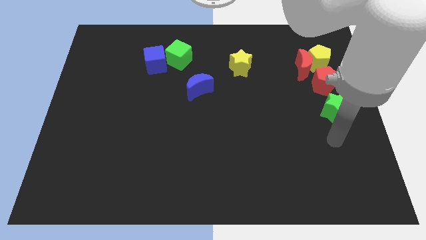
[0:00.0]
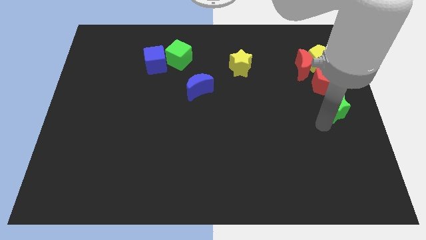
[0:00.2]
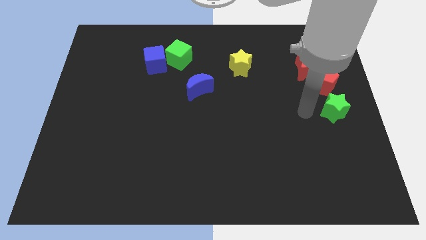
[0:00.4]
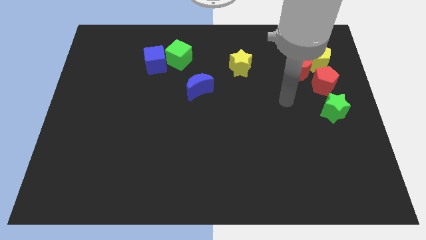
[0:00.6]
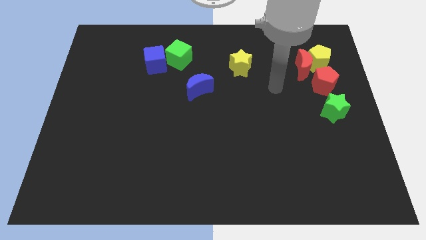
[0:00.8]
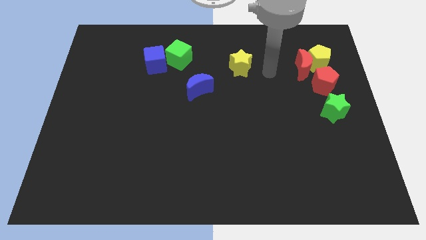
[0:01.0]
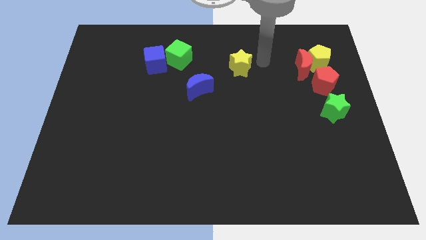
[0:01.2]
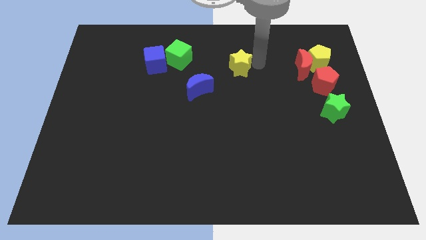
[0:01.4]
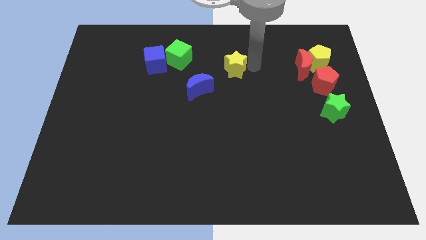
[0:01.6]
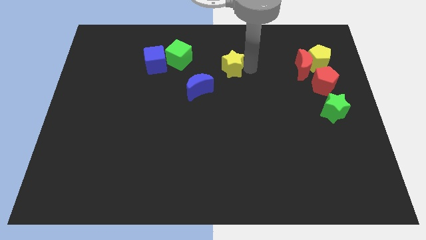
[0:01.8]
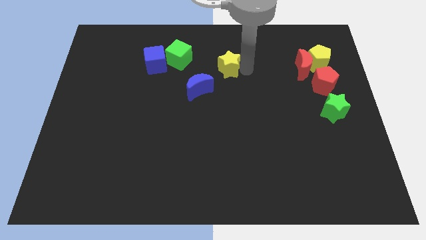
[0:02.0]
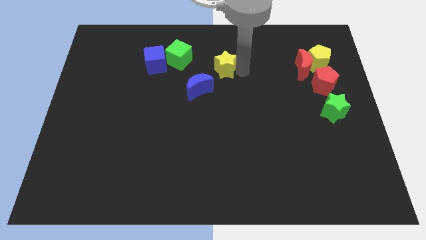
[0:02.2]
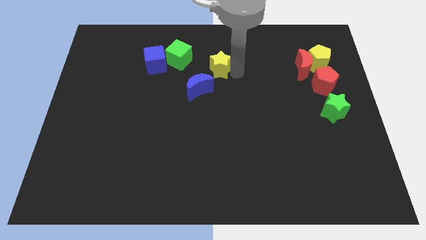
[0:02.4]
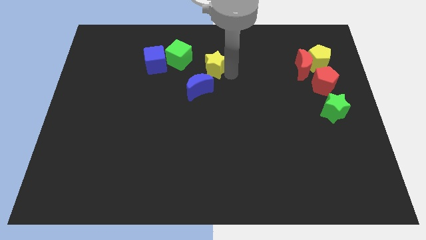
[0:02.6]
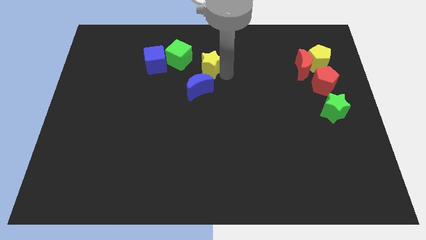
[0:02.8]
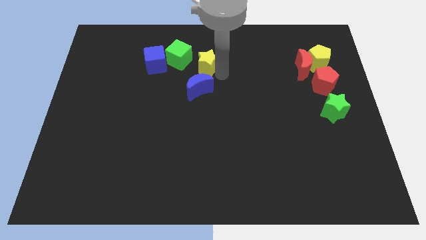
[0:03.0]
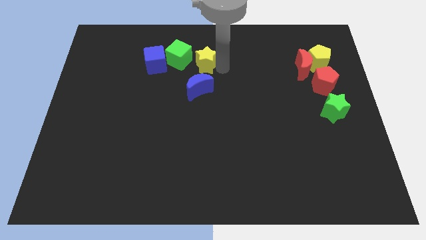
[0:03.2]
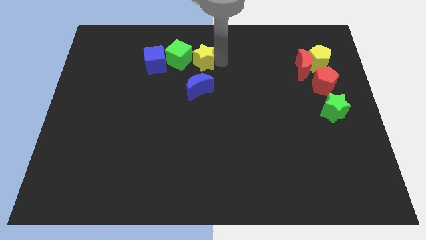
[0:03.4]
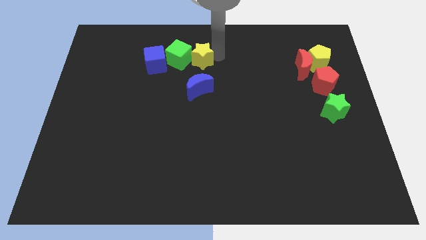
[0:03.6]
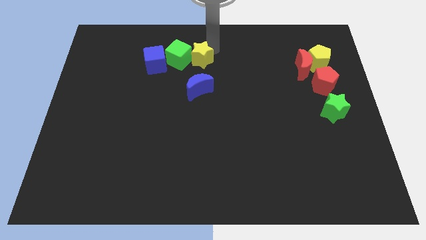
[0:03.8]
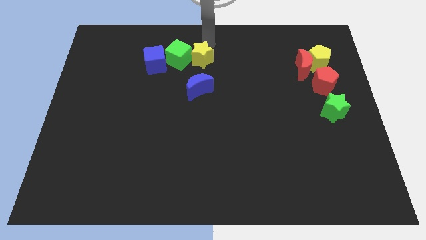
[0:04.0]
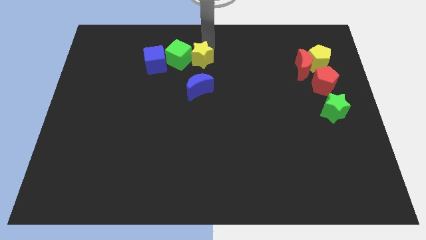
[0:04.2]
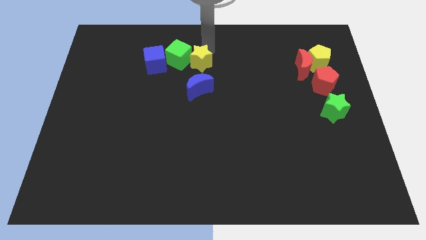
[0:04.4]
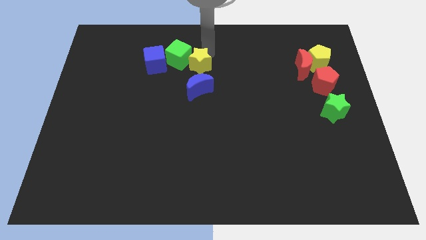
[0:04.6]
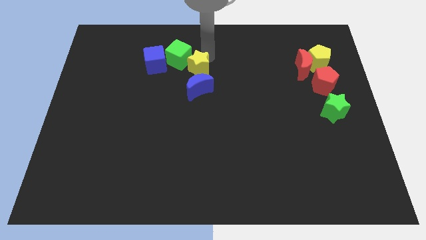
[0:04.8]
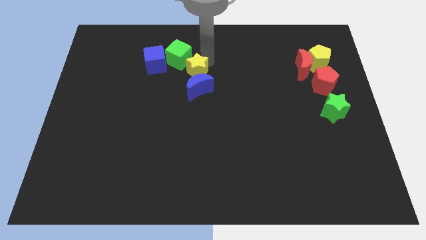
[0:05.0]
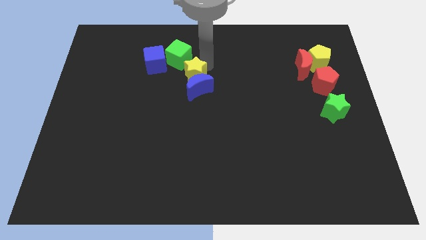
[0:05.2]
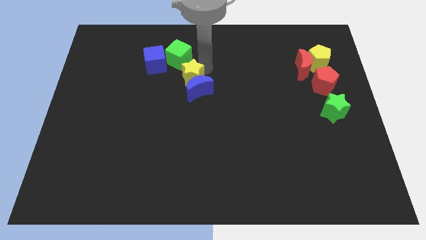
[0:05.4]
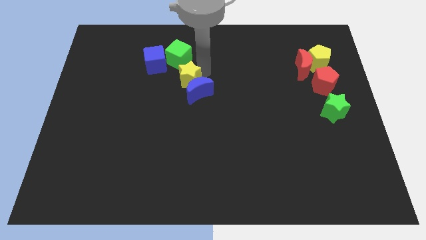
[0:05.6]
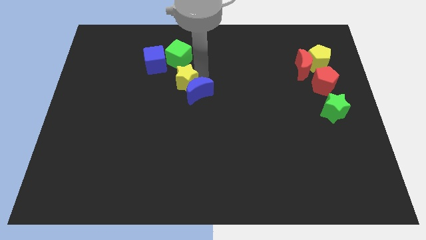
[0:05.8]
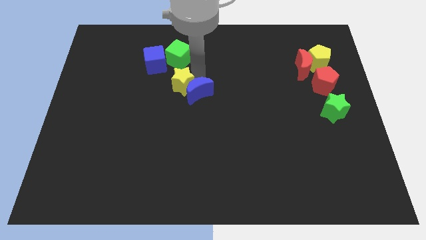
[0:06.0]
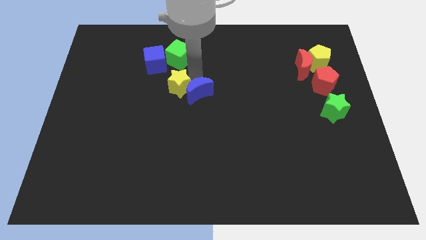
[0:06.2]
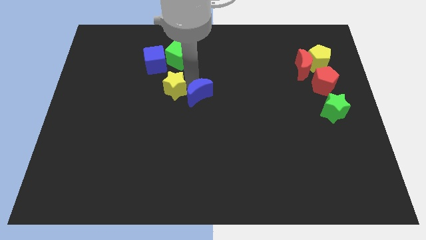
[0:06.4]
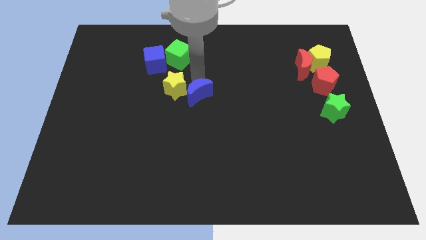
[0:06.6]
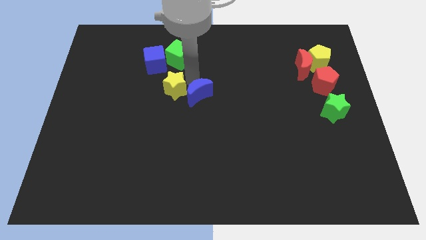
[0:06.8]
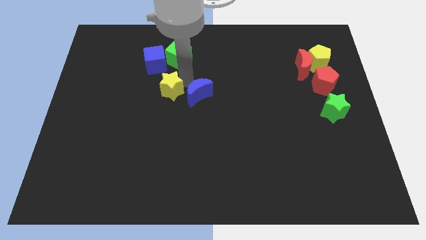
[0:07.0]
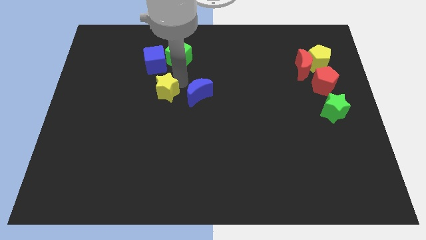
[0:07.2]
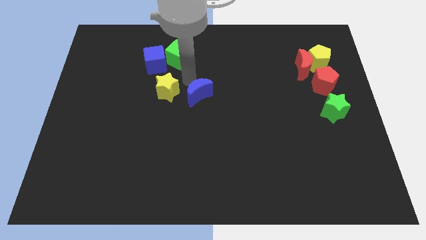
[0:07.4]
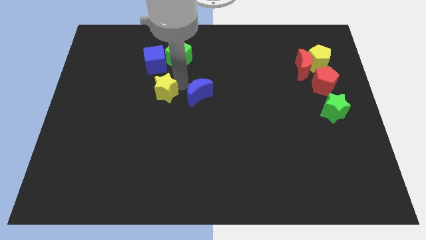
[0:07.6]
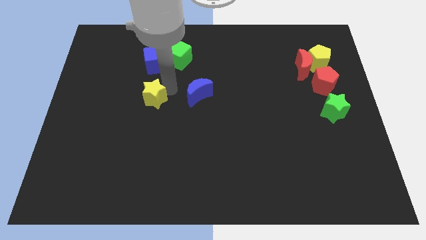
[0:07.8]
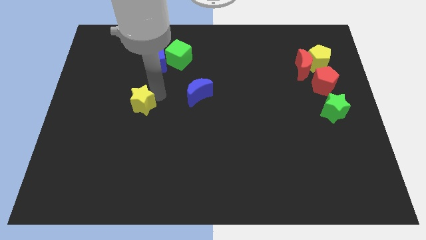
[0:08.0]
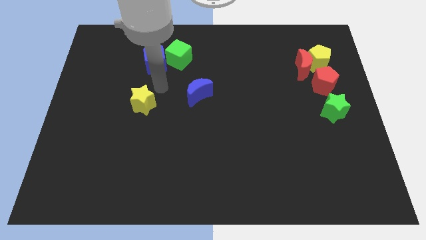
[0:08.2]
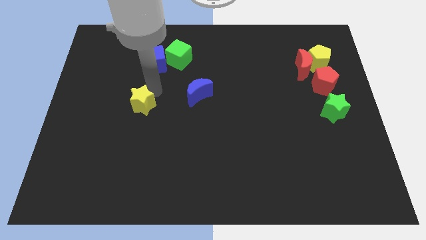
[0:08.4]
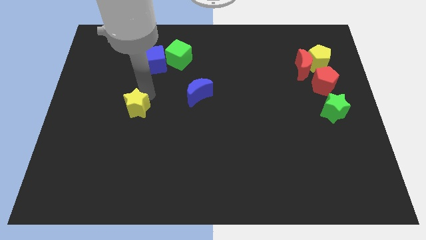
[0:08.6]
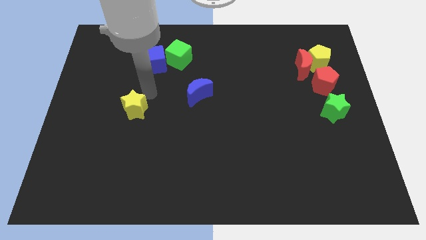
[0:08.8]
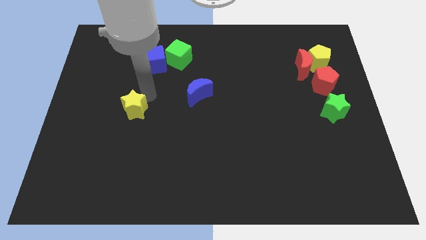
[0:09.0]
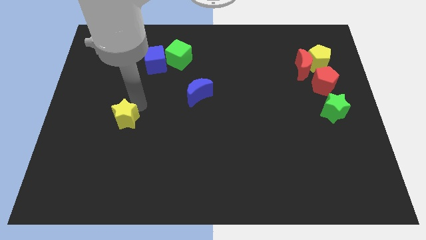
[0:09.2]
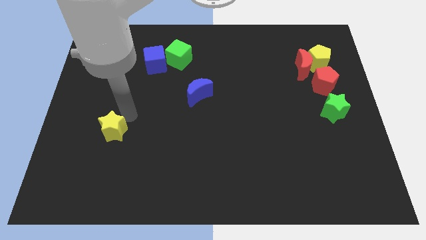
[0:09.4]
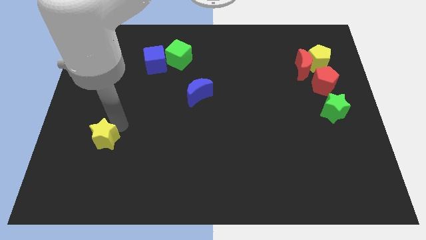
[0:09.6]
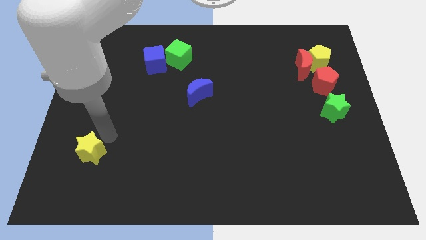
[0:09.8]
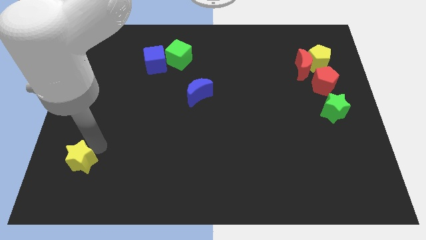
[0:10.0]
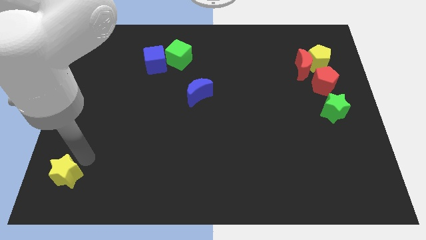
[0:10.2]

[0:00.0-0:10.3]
push the yellow star to the bottom left of the board
